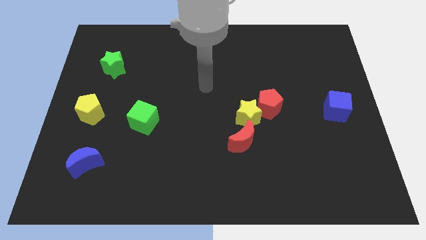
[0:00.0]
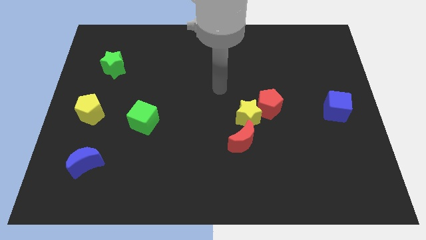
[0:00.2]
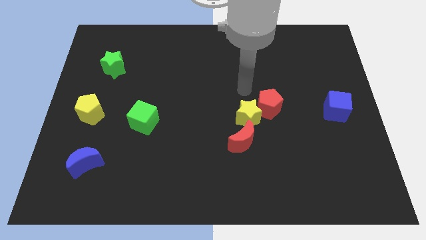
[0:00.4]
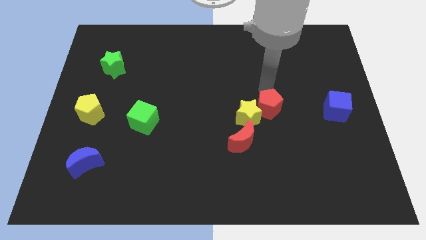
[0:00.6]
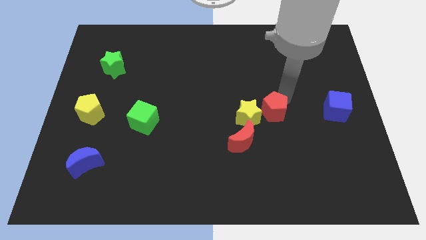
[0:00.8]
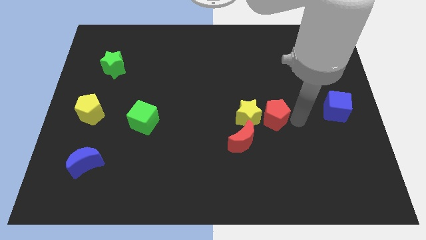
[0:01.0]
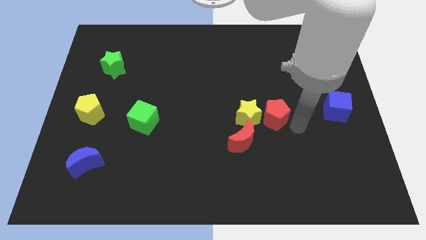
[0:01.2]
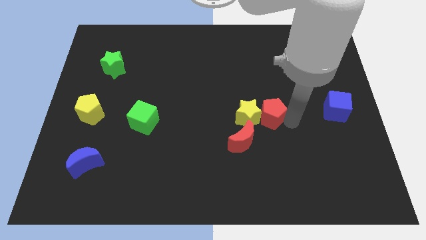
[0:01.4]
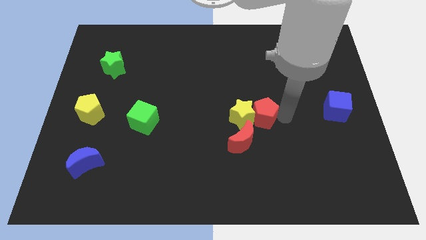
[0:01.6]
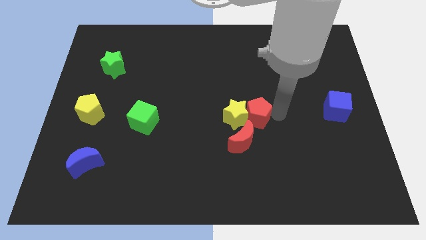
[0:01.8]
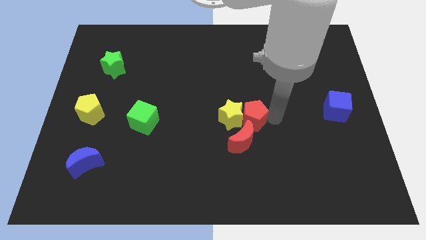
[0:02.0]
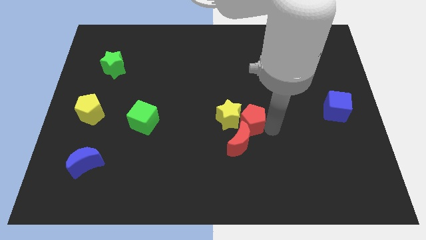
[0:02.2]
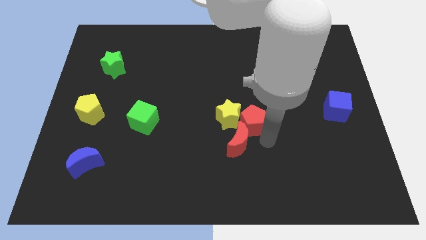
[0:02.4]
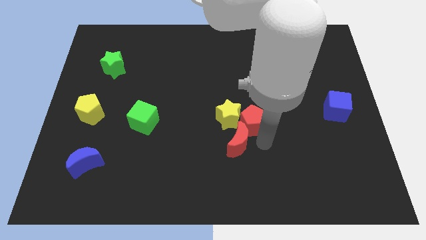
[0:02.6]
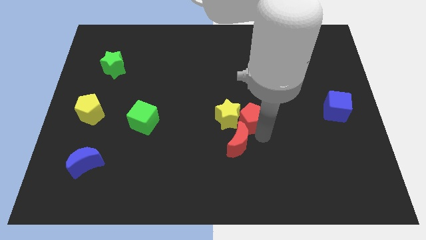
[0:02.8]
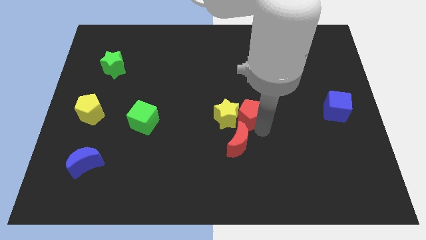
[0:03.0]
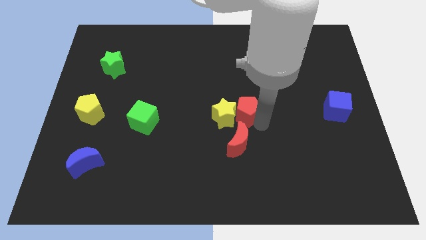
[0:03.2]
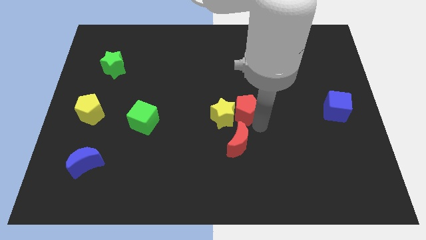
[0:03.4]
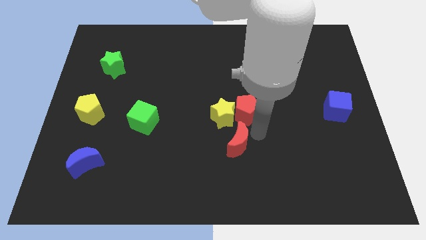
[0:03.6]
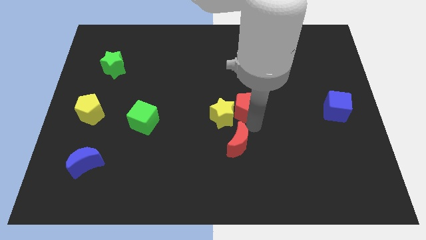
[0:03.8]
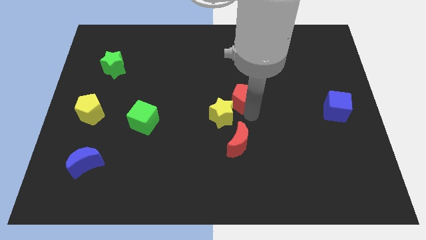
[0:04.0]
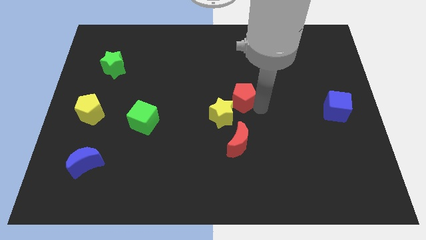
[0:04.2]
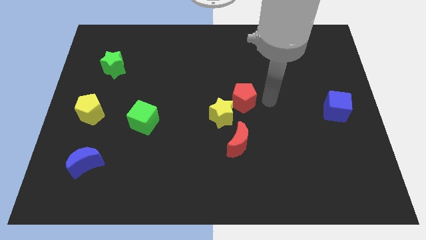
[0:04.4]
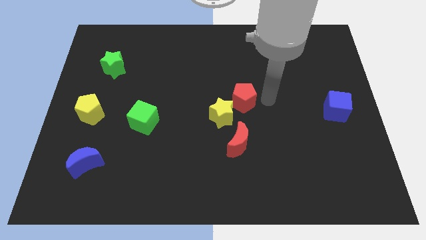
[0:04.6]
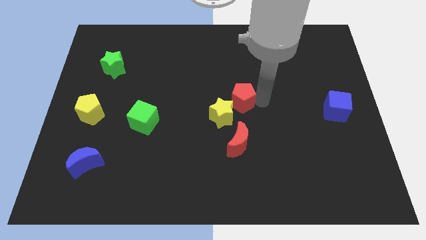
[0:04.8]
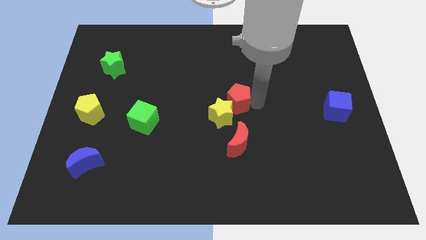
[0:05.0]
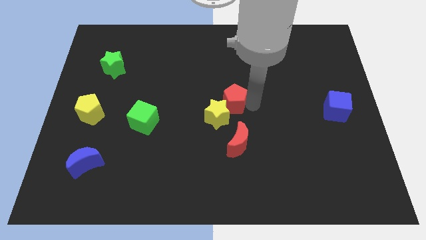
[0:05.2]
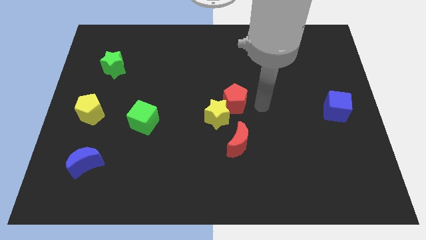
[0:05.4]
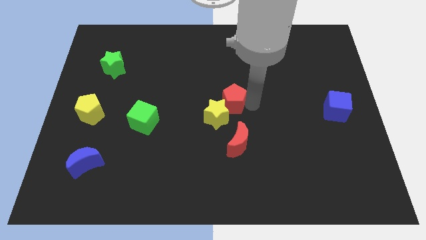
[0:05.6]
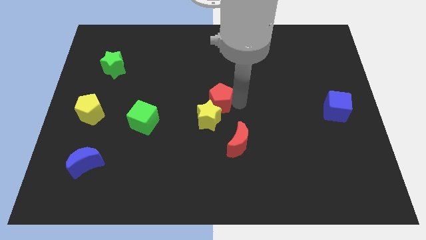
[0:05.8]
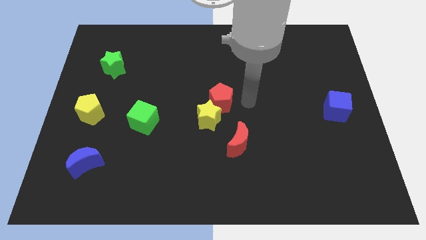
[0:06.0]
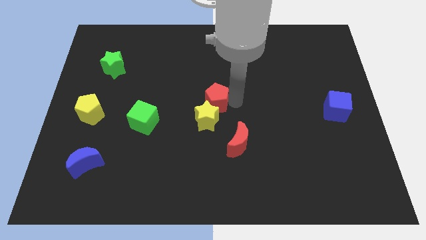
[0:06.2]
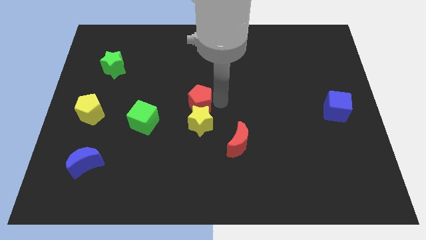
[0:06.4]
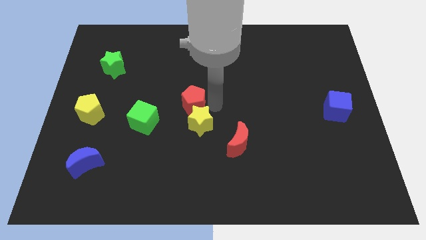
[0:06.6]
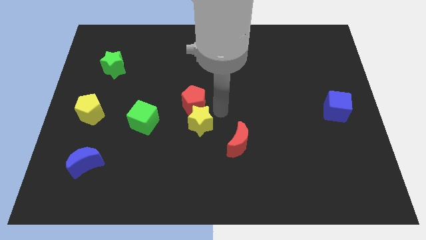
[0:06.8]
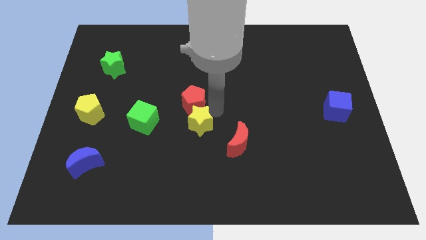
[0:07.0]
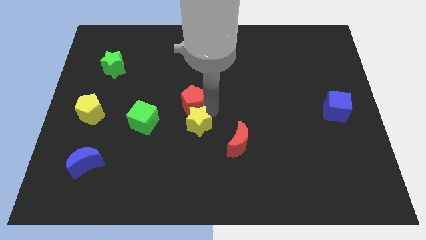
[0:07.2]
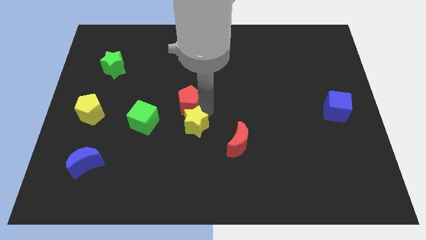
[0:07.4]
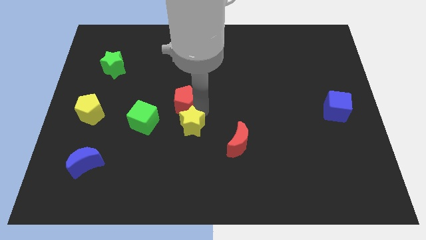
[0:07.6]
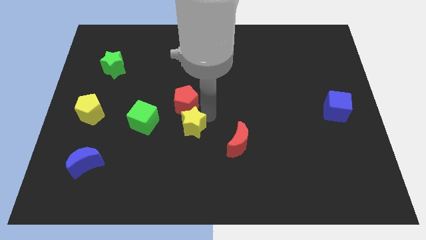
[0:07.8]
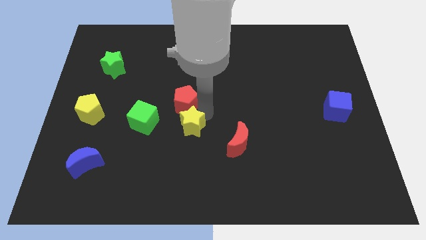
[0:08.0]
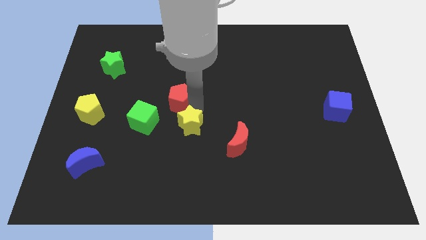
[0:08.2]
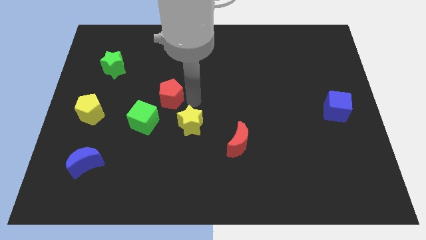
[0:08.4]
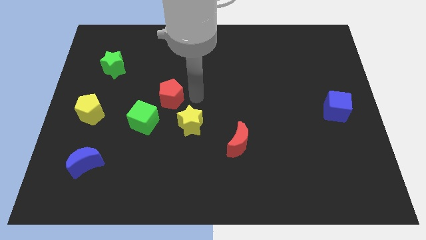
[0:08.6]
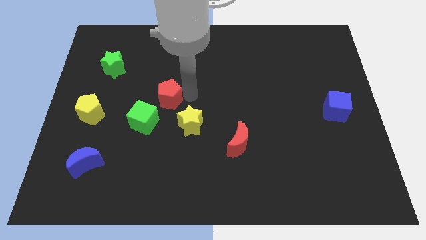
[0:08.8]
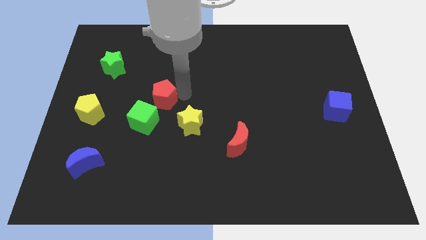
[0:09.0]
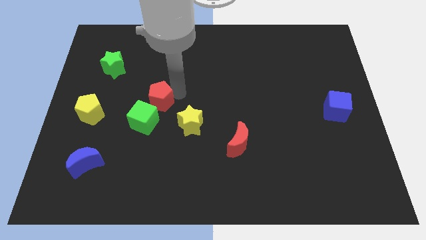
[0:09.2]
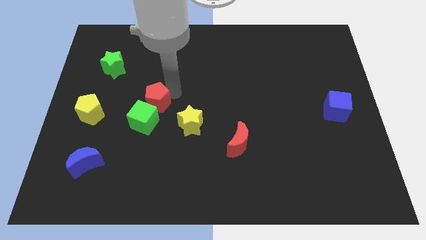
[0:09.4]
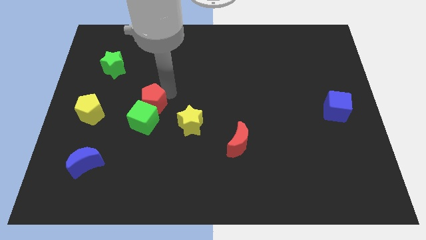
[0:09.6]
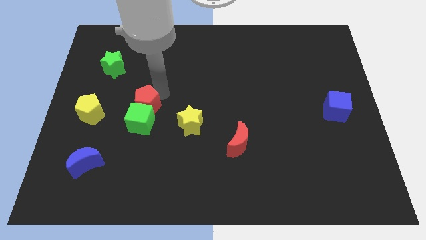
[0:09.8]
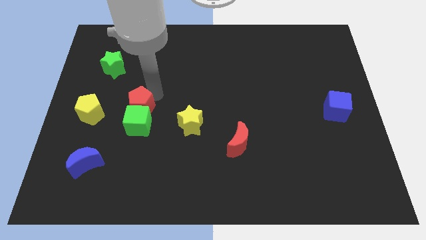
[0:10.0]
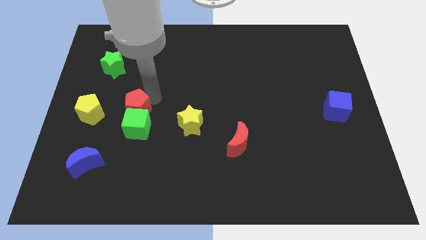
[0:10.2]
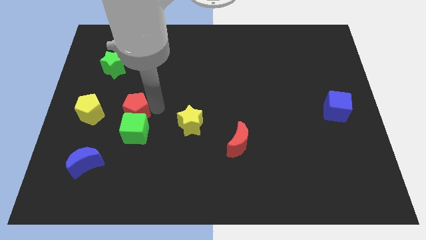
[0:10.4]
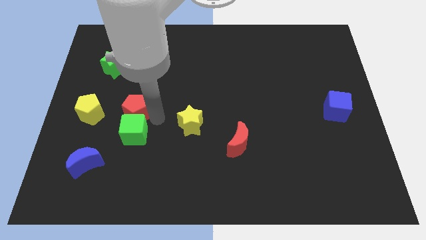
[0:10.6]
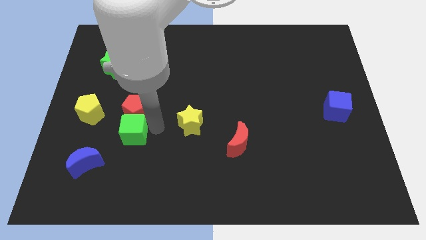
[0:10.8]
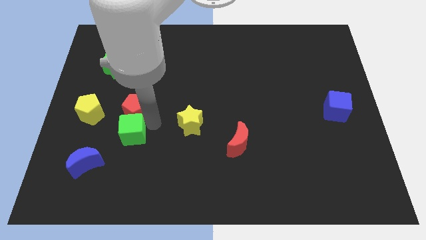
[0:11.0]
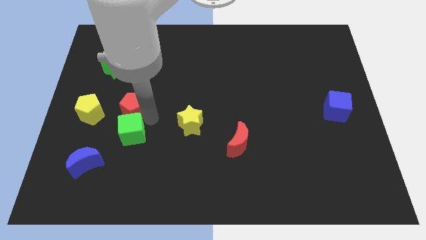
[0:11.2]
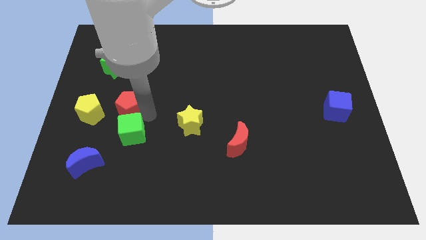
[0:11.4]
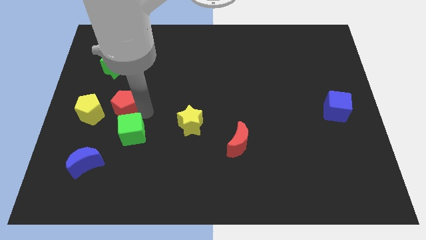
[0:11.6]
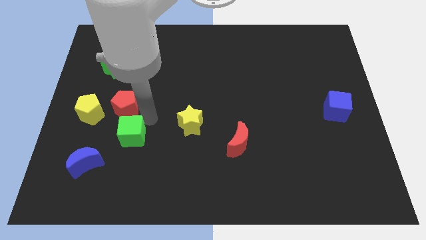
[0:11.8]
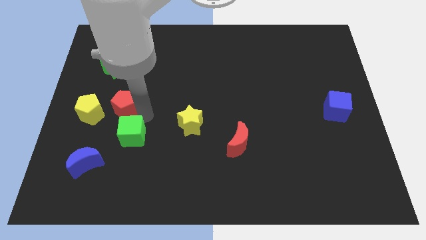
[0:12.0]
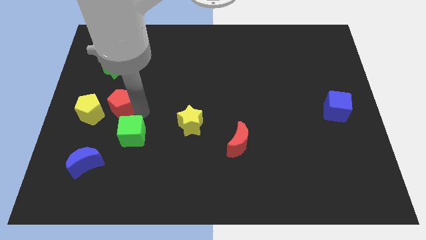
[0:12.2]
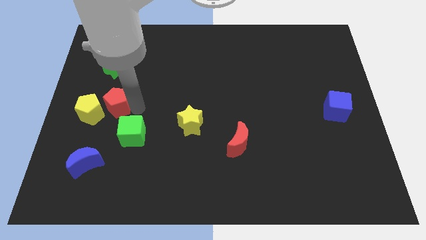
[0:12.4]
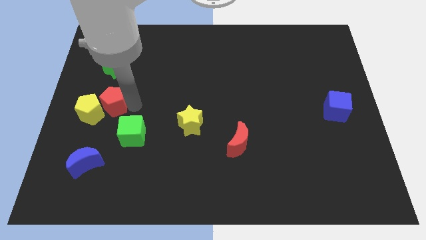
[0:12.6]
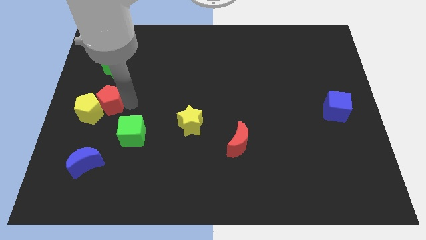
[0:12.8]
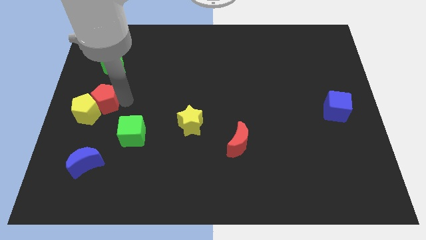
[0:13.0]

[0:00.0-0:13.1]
put the red pentagon to the center left
